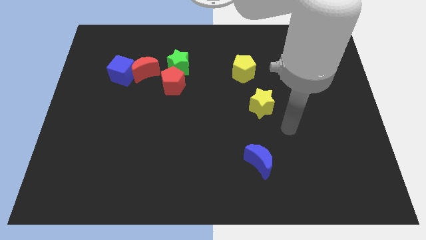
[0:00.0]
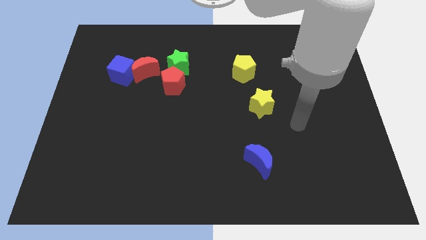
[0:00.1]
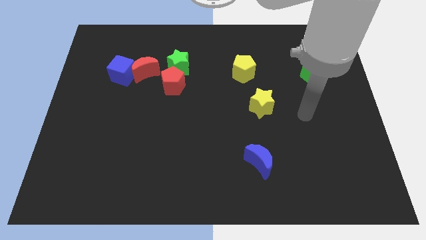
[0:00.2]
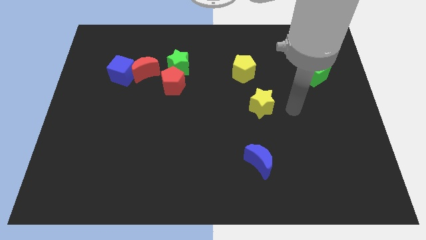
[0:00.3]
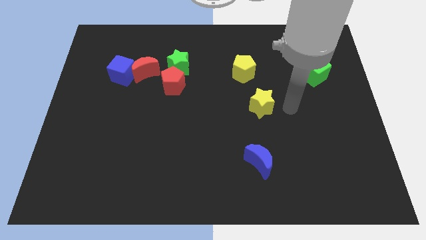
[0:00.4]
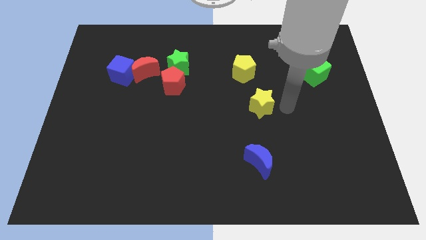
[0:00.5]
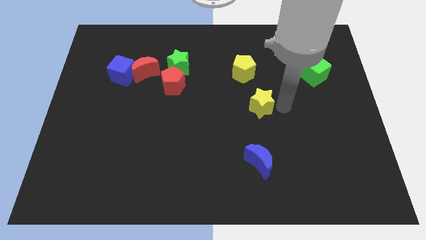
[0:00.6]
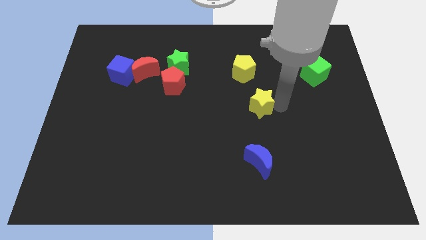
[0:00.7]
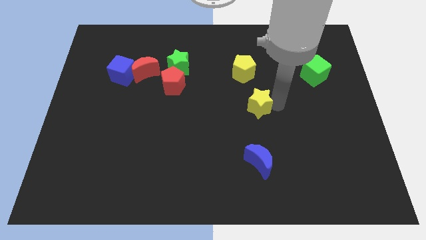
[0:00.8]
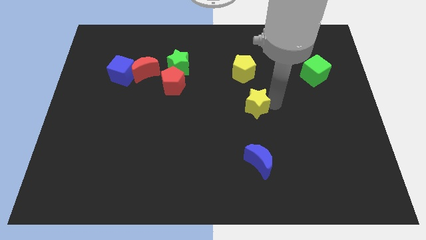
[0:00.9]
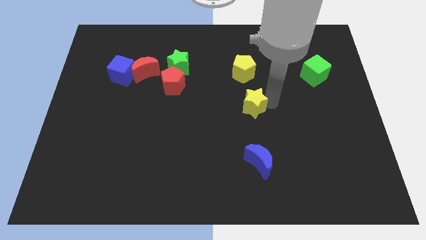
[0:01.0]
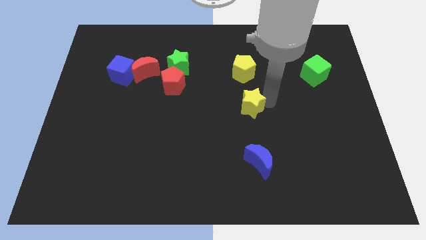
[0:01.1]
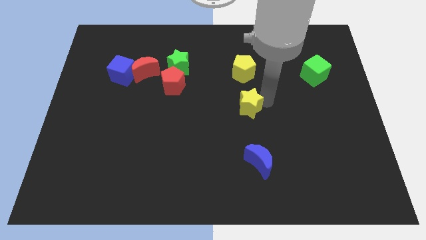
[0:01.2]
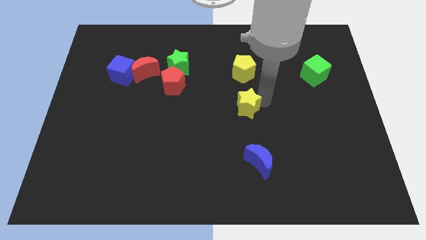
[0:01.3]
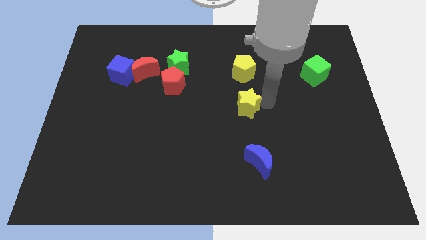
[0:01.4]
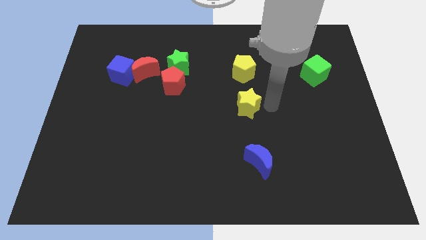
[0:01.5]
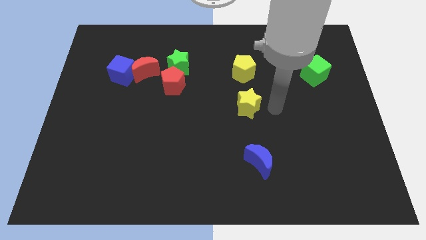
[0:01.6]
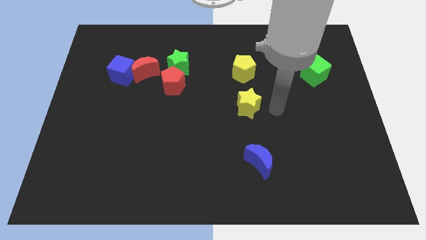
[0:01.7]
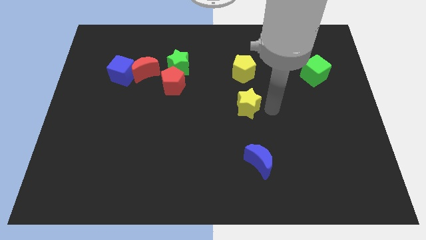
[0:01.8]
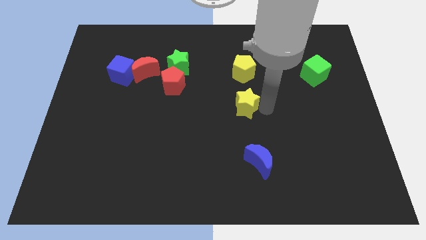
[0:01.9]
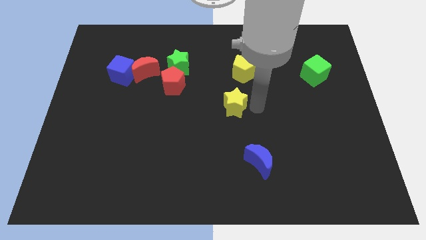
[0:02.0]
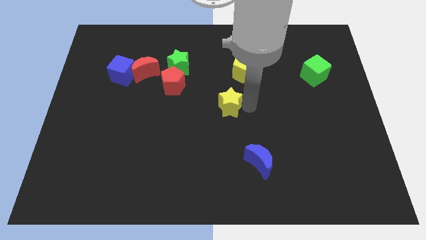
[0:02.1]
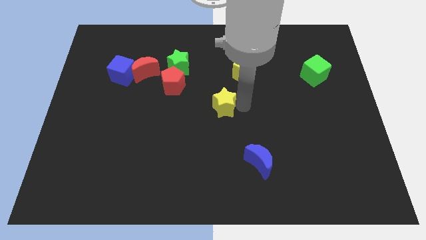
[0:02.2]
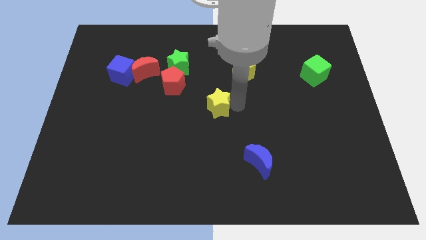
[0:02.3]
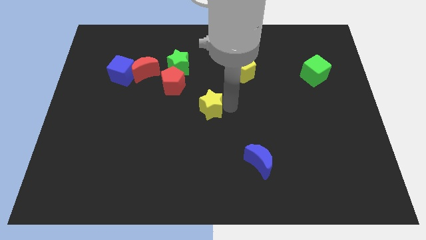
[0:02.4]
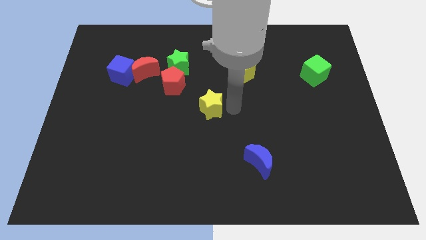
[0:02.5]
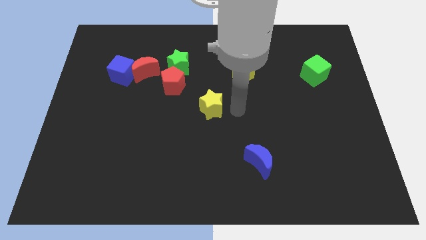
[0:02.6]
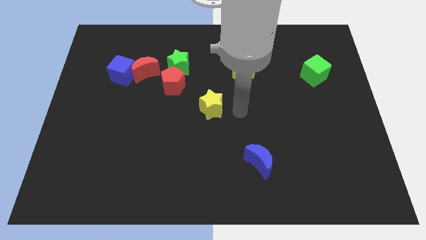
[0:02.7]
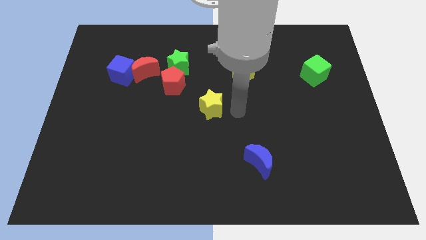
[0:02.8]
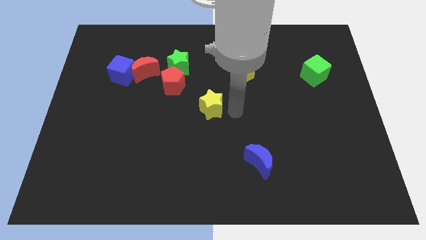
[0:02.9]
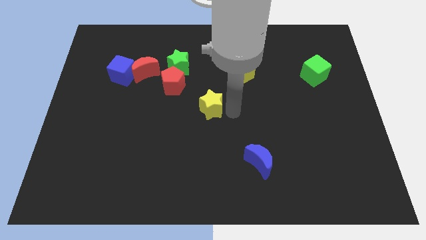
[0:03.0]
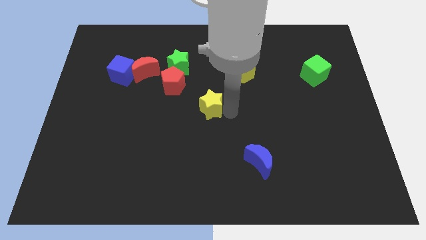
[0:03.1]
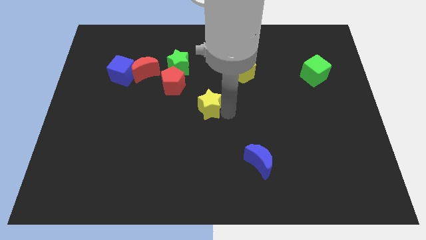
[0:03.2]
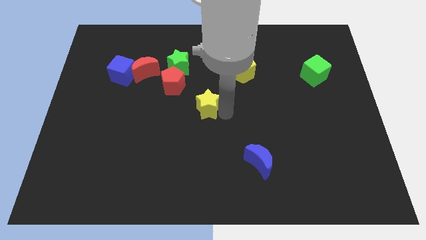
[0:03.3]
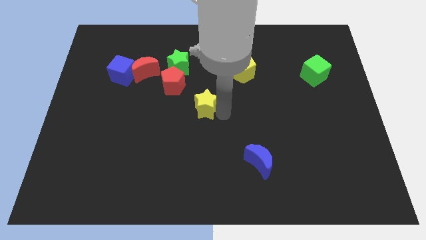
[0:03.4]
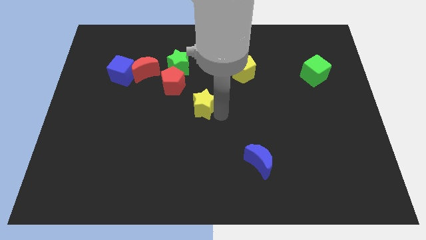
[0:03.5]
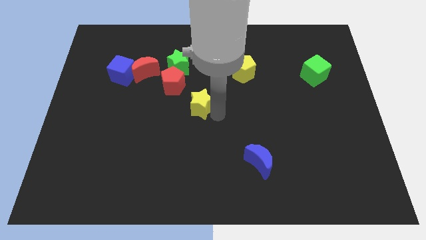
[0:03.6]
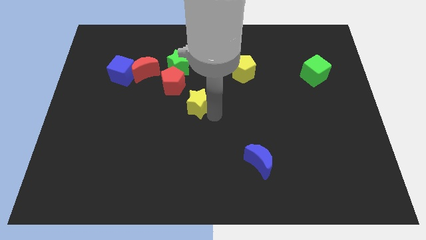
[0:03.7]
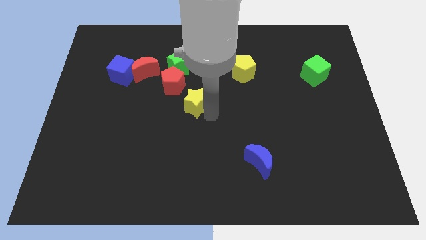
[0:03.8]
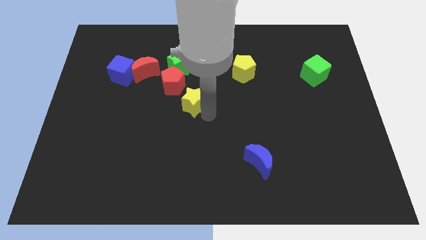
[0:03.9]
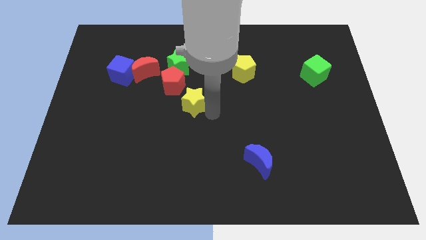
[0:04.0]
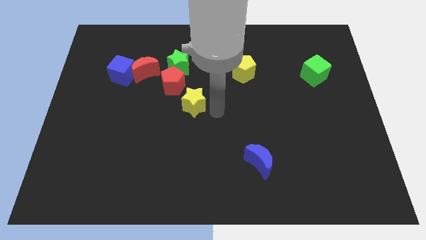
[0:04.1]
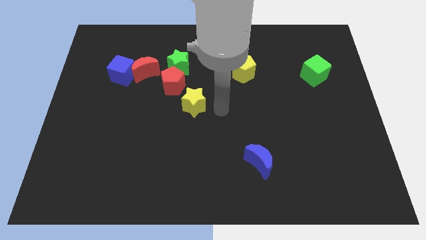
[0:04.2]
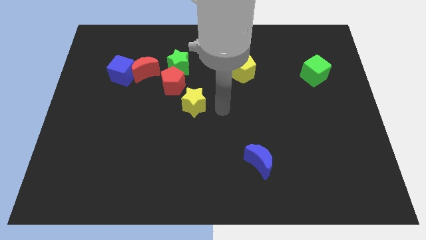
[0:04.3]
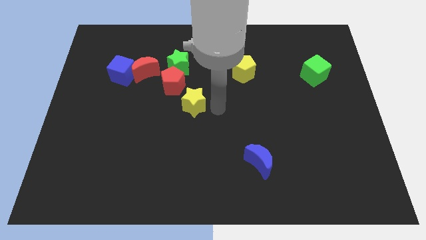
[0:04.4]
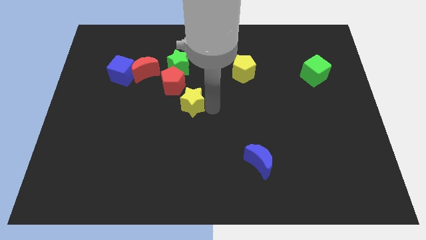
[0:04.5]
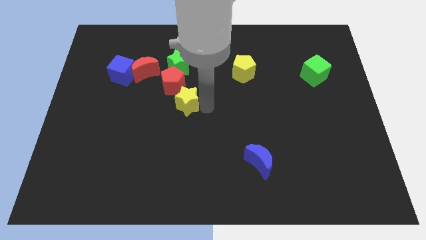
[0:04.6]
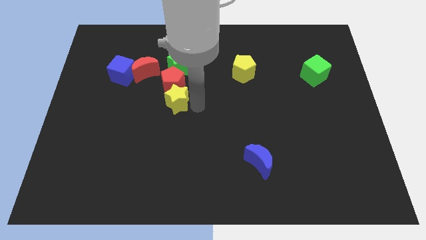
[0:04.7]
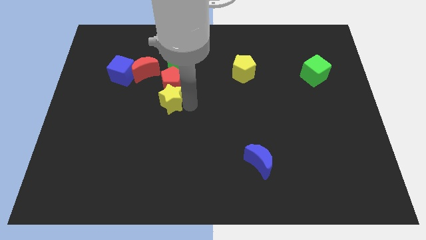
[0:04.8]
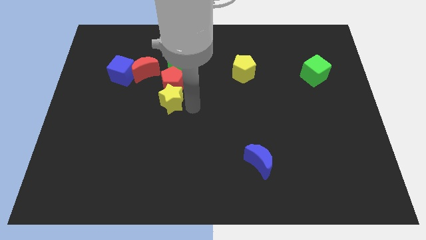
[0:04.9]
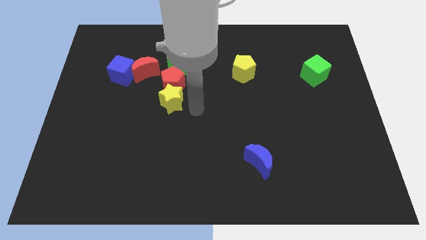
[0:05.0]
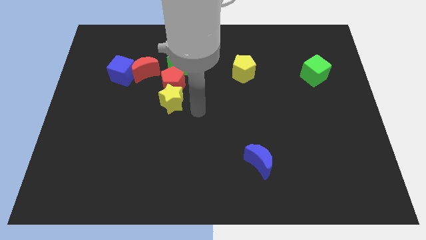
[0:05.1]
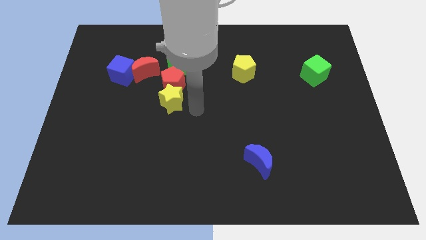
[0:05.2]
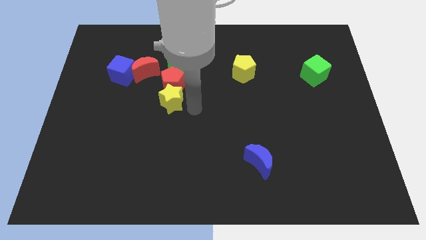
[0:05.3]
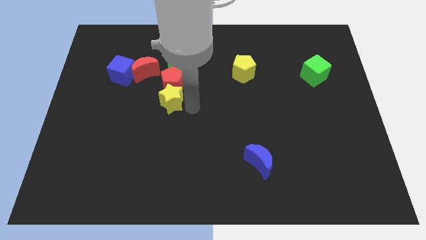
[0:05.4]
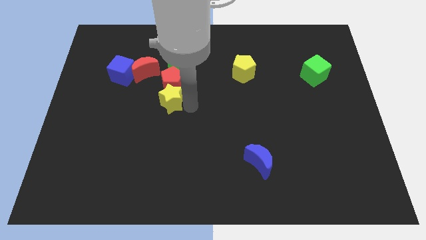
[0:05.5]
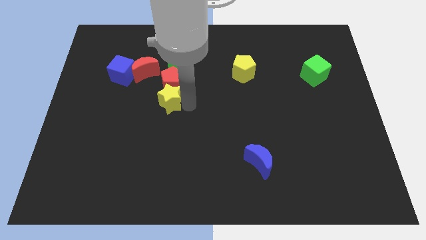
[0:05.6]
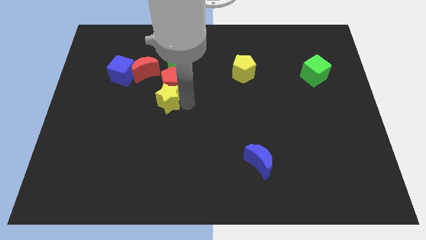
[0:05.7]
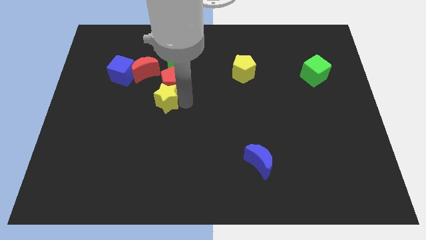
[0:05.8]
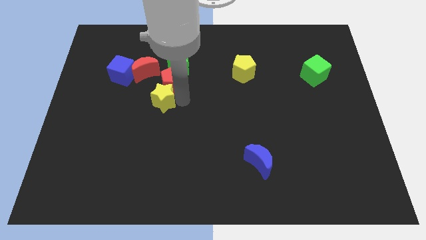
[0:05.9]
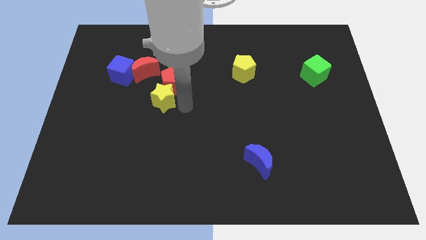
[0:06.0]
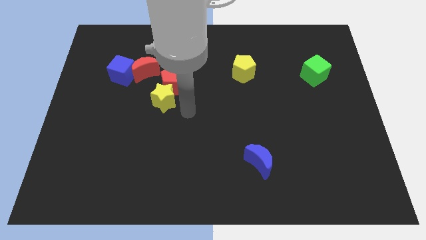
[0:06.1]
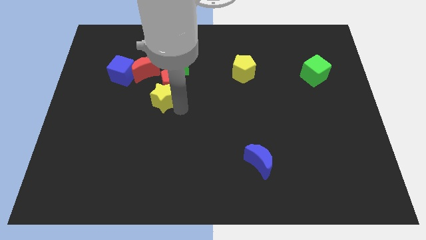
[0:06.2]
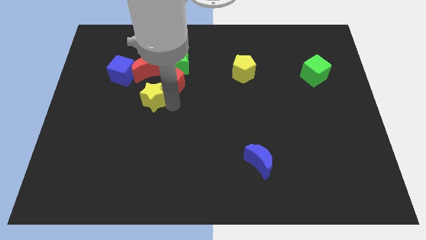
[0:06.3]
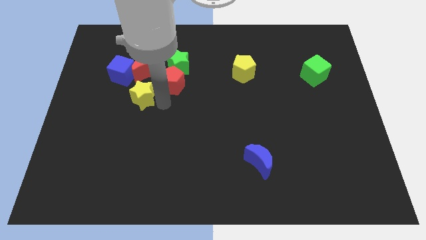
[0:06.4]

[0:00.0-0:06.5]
move the yellow star to the left of the red pentagon
